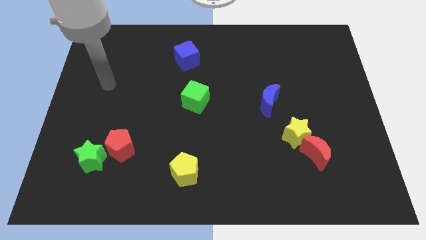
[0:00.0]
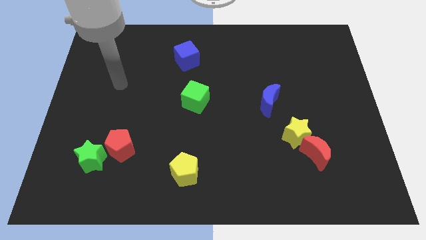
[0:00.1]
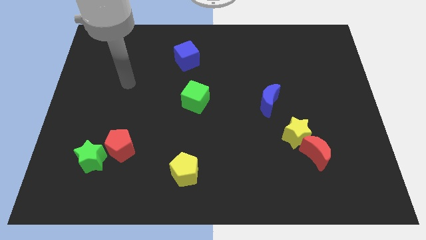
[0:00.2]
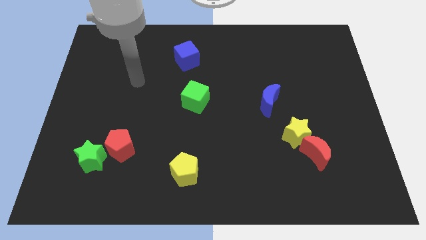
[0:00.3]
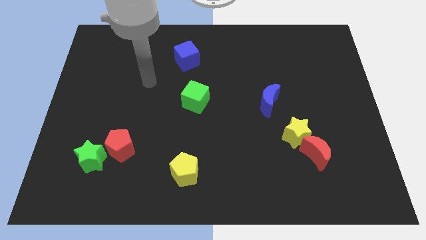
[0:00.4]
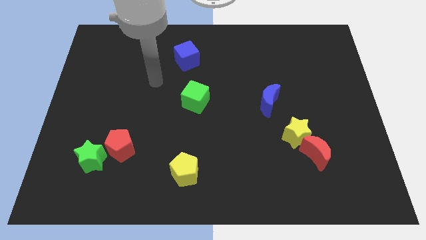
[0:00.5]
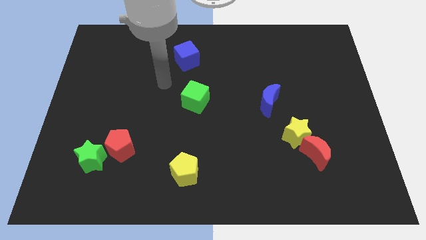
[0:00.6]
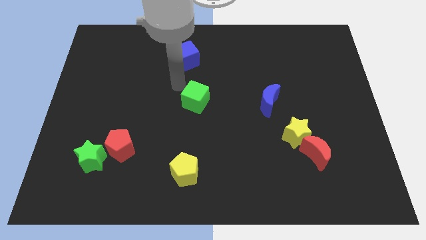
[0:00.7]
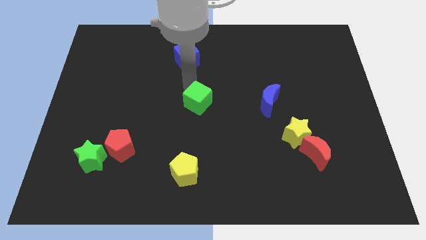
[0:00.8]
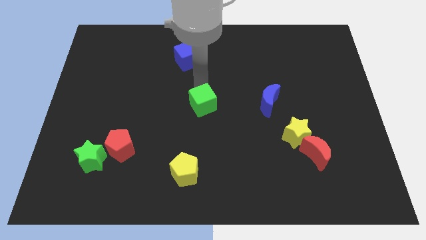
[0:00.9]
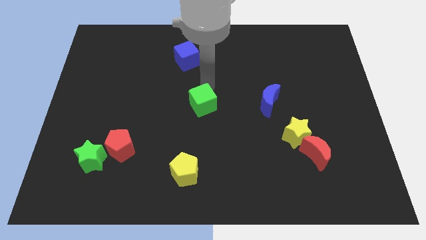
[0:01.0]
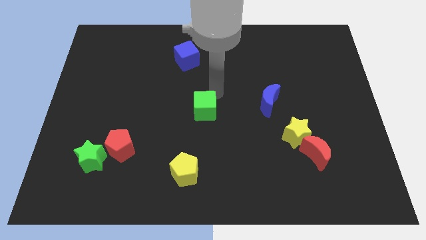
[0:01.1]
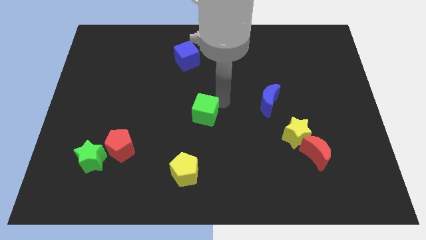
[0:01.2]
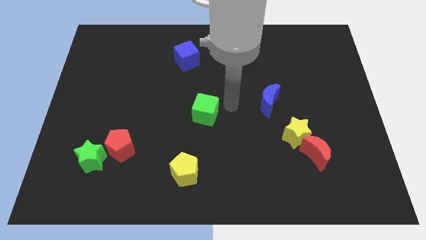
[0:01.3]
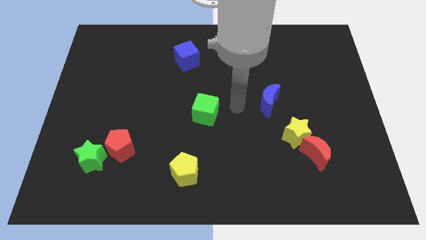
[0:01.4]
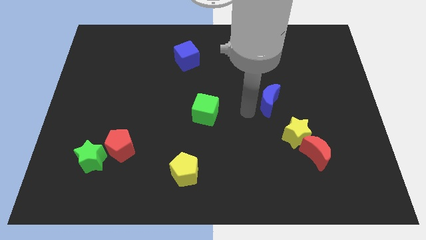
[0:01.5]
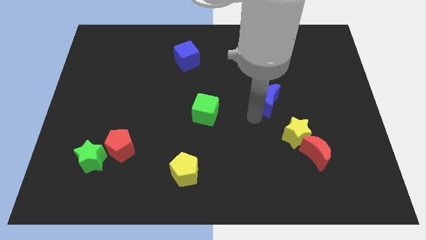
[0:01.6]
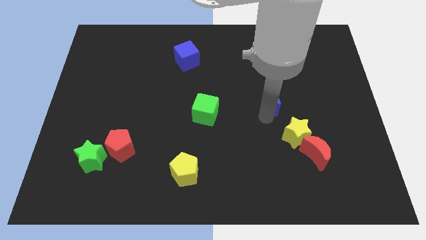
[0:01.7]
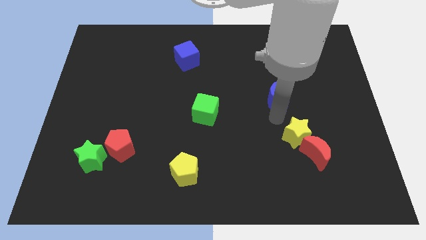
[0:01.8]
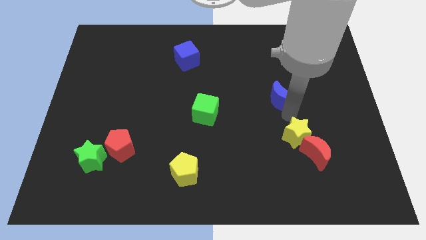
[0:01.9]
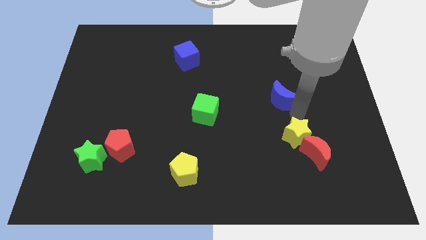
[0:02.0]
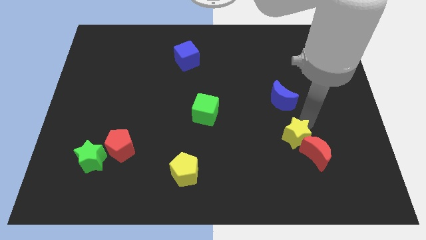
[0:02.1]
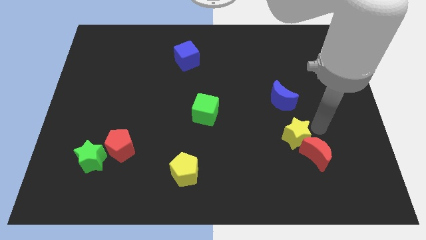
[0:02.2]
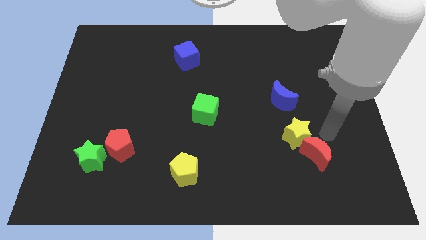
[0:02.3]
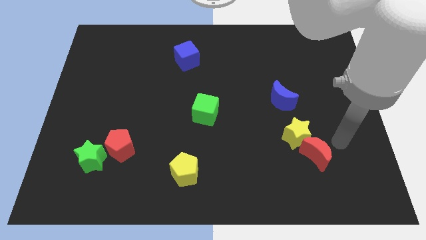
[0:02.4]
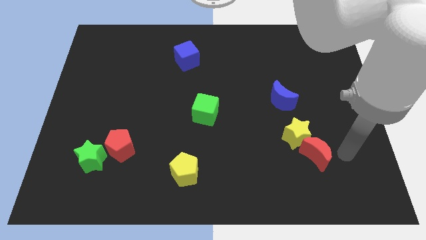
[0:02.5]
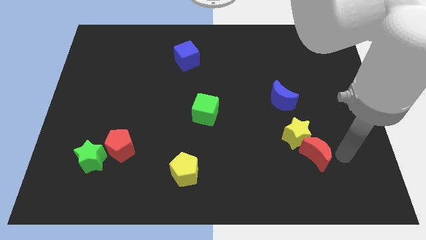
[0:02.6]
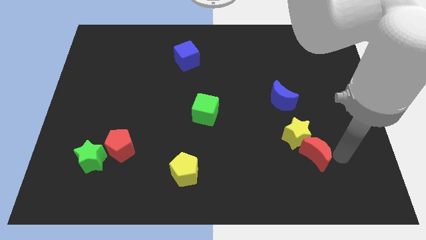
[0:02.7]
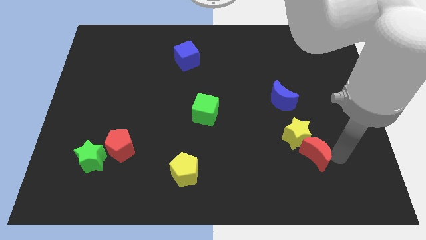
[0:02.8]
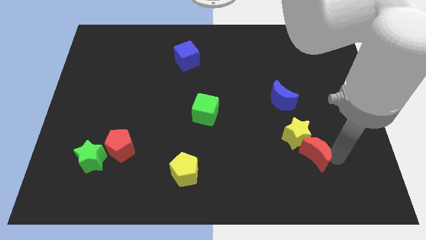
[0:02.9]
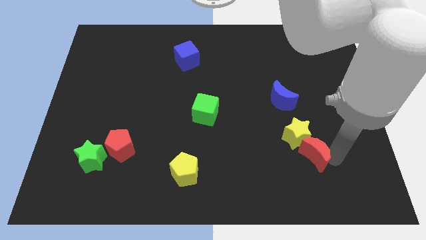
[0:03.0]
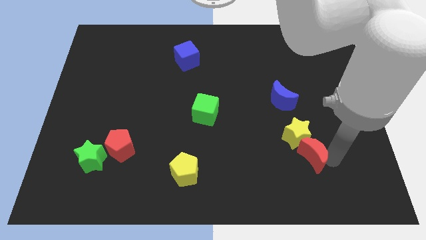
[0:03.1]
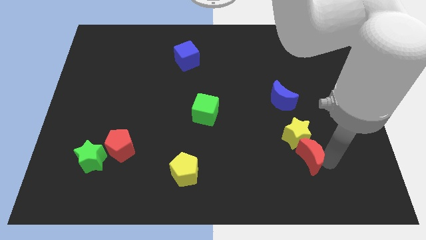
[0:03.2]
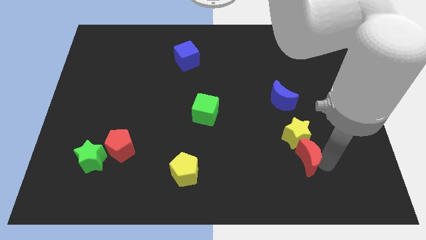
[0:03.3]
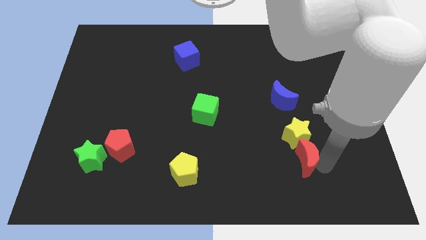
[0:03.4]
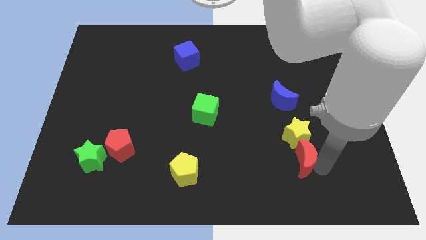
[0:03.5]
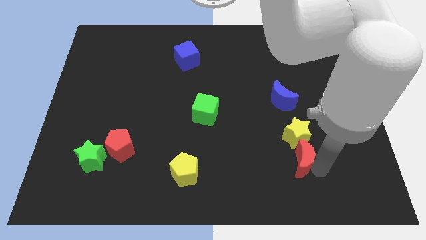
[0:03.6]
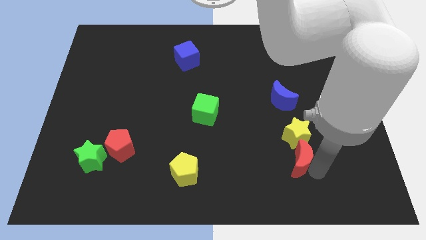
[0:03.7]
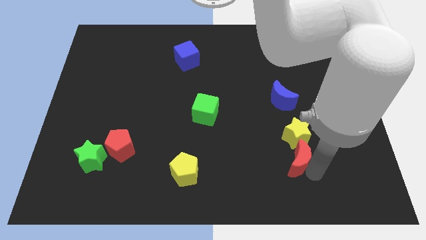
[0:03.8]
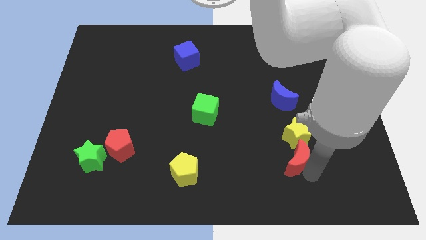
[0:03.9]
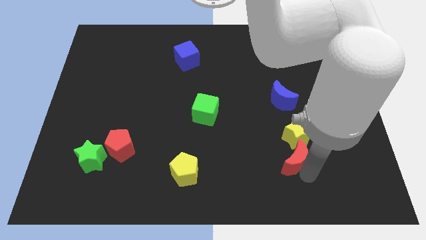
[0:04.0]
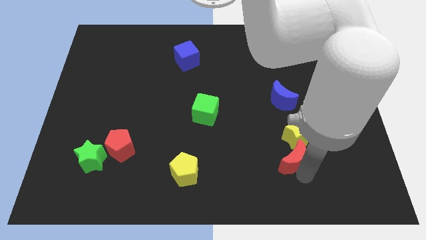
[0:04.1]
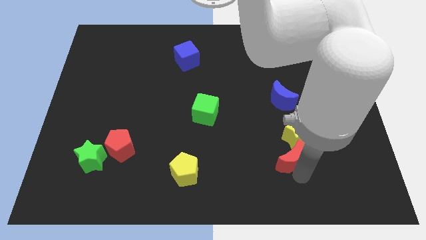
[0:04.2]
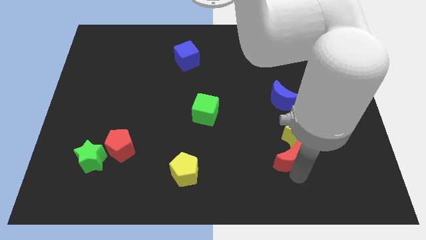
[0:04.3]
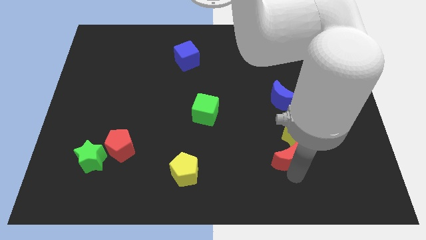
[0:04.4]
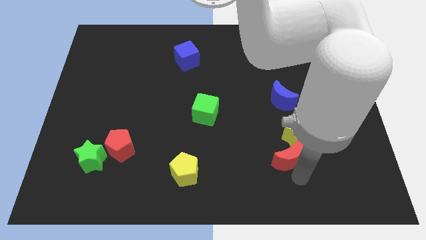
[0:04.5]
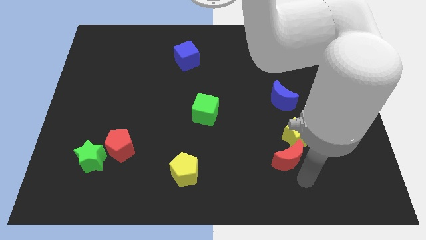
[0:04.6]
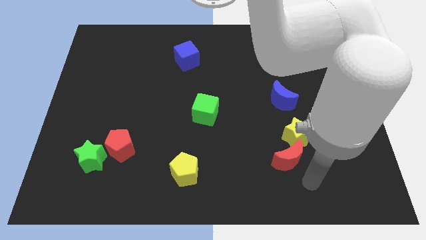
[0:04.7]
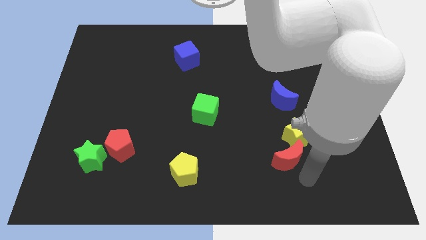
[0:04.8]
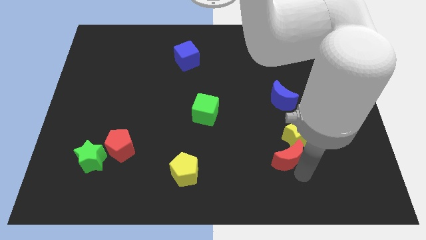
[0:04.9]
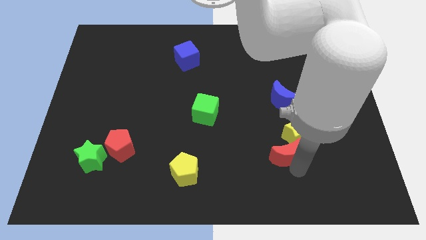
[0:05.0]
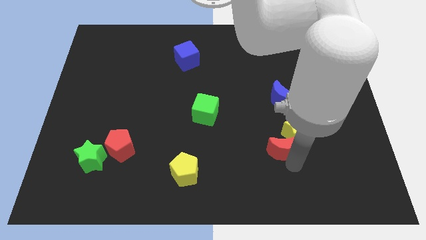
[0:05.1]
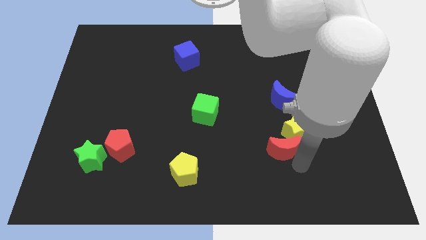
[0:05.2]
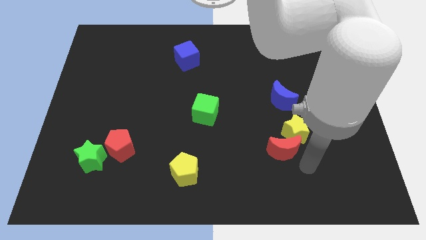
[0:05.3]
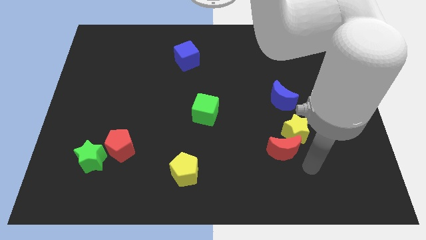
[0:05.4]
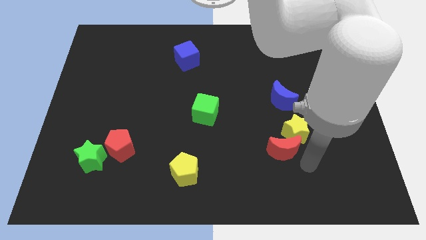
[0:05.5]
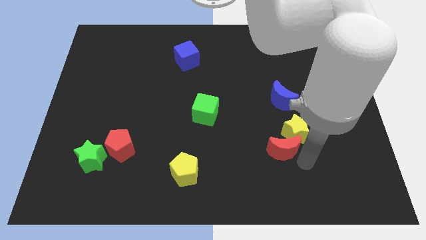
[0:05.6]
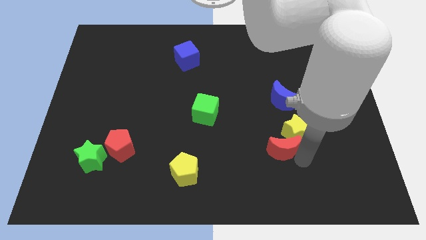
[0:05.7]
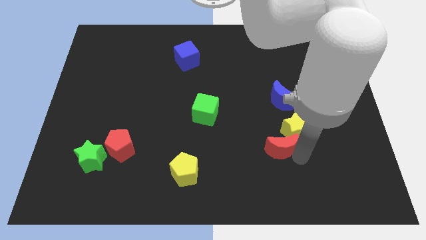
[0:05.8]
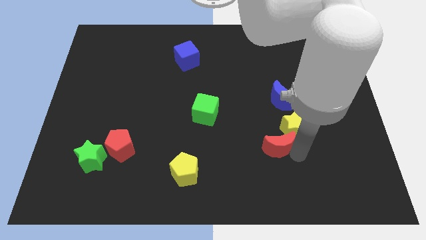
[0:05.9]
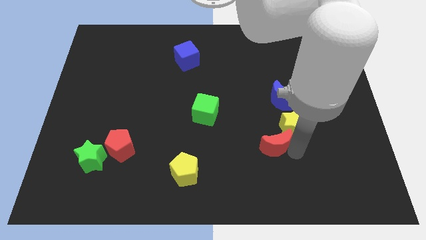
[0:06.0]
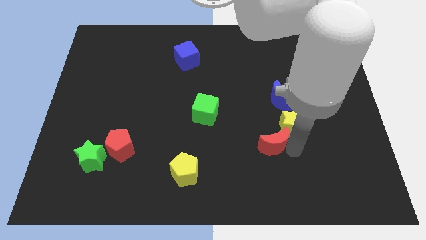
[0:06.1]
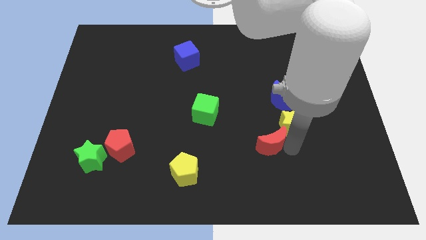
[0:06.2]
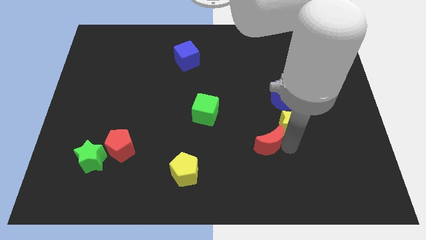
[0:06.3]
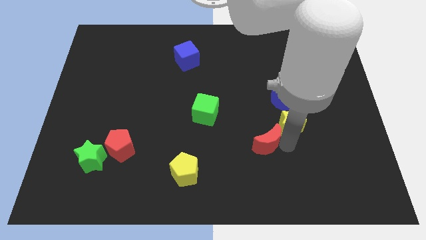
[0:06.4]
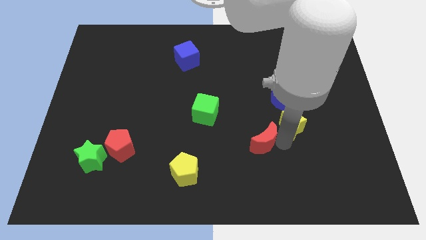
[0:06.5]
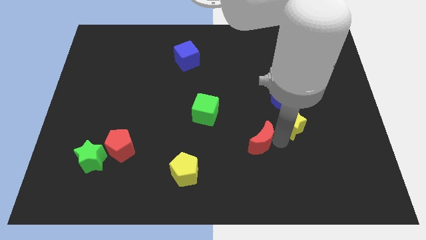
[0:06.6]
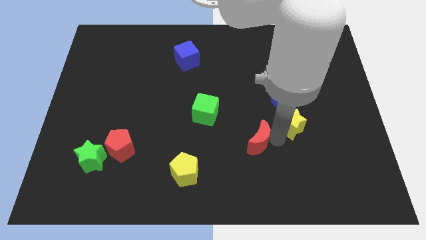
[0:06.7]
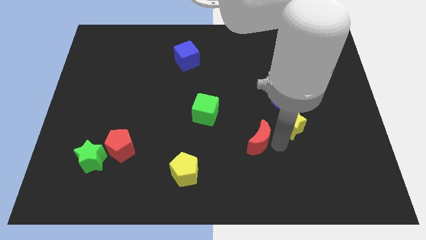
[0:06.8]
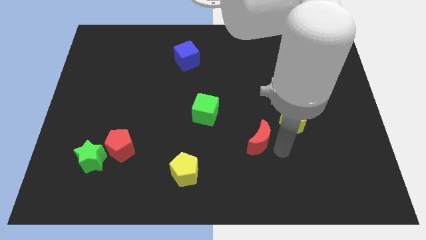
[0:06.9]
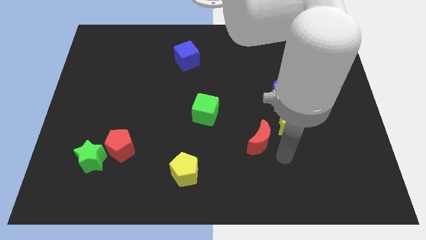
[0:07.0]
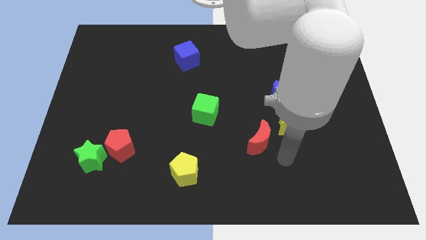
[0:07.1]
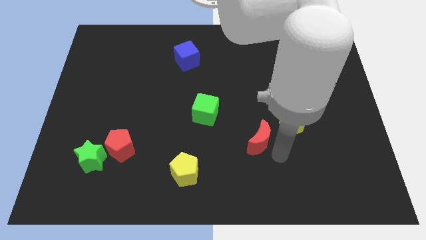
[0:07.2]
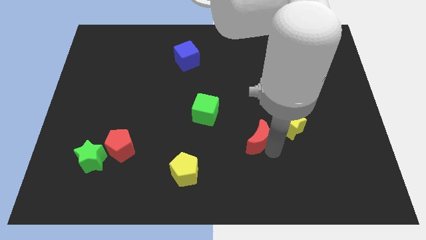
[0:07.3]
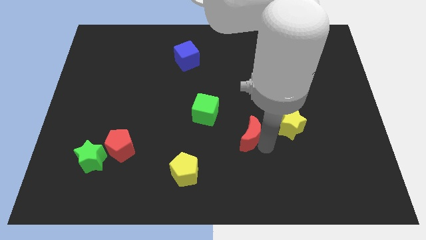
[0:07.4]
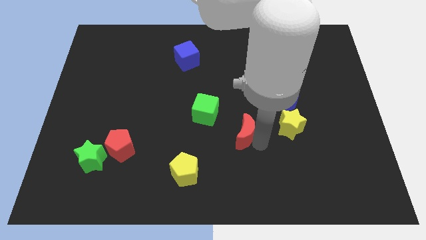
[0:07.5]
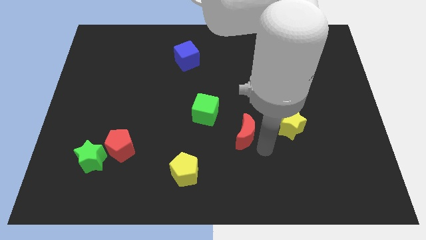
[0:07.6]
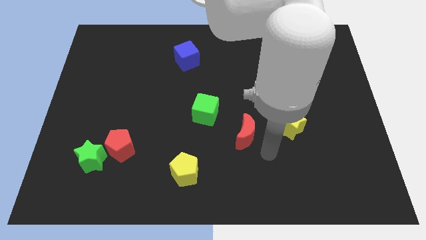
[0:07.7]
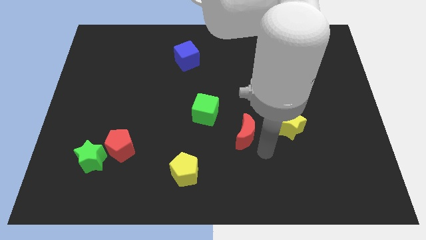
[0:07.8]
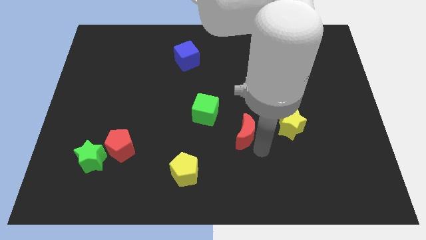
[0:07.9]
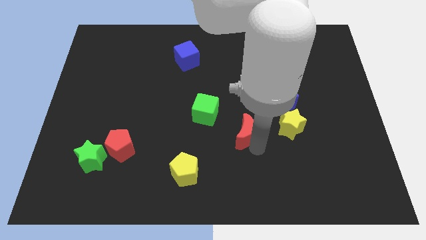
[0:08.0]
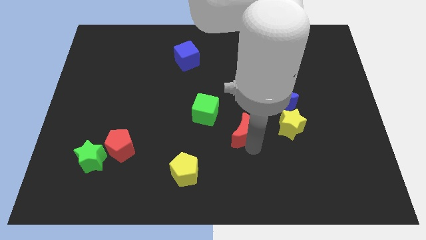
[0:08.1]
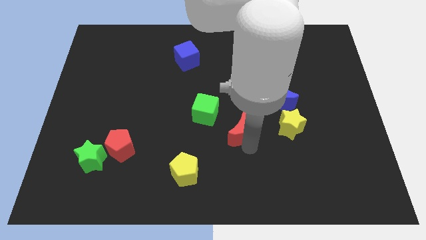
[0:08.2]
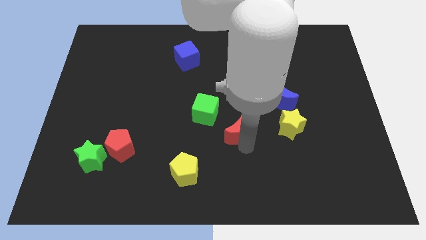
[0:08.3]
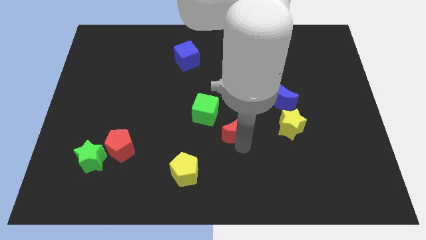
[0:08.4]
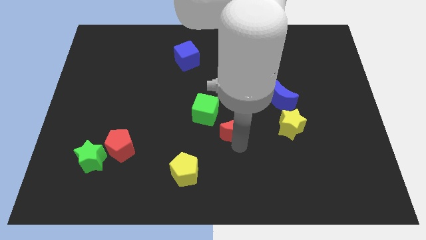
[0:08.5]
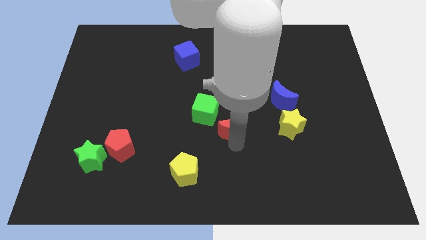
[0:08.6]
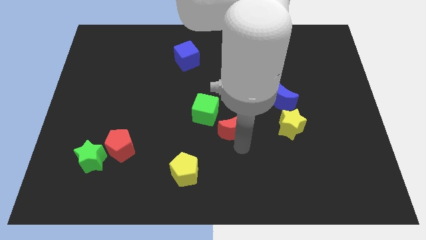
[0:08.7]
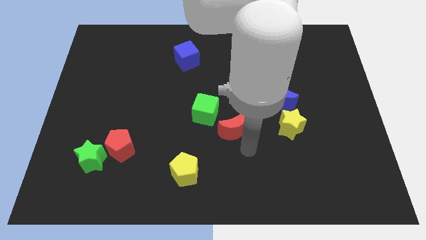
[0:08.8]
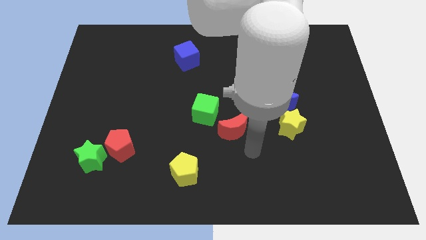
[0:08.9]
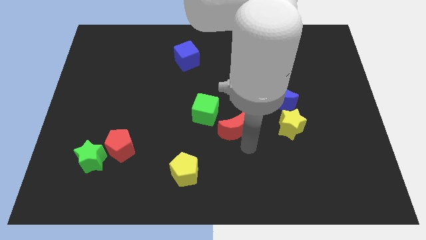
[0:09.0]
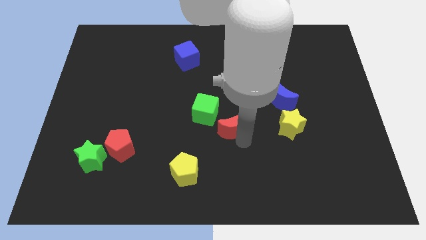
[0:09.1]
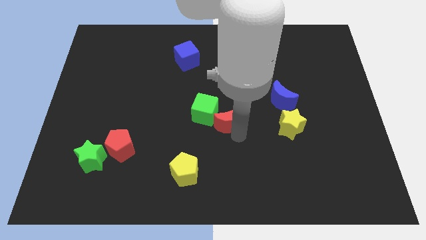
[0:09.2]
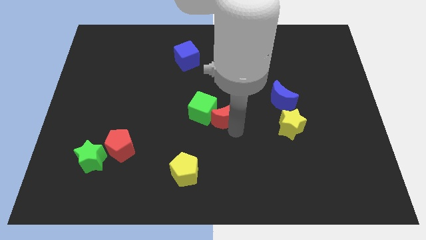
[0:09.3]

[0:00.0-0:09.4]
slide the red moon next to the green cube
